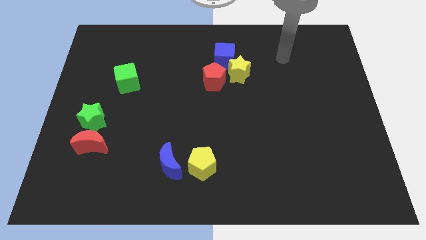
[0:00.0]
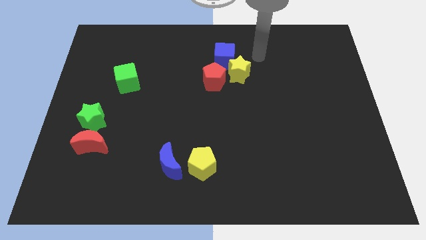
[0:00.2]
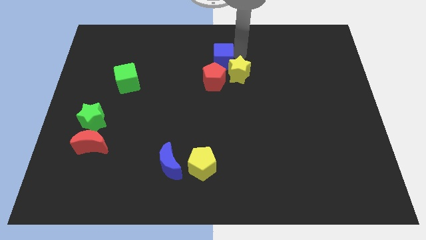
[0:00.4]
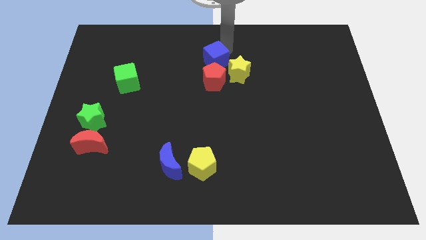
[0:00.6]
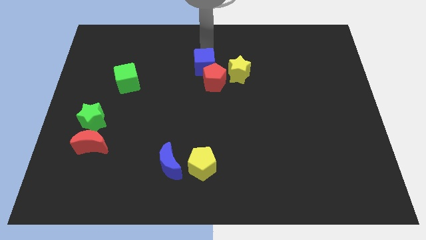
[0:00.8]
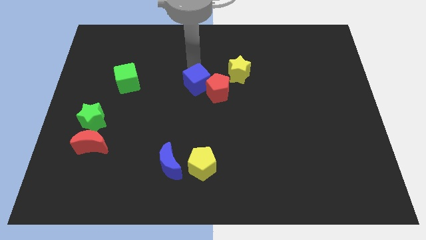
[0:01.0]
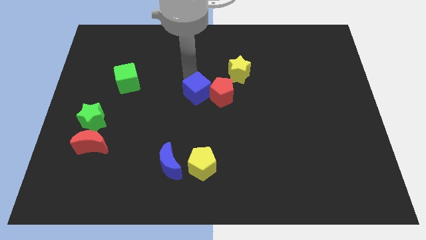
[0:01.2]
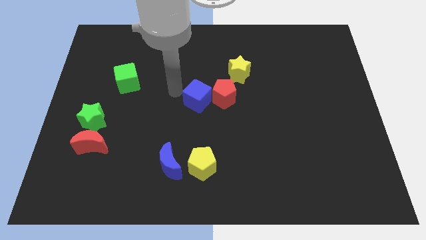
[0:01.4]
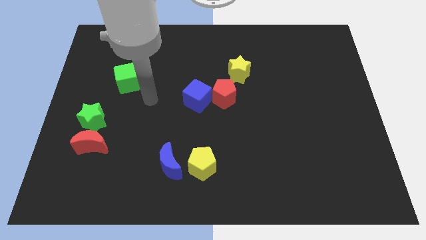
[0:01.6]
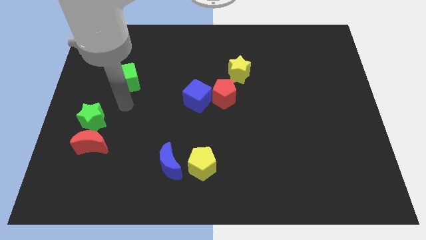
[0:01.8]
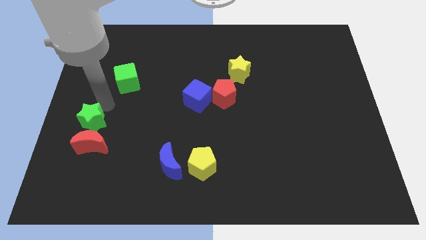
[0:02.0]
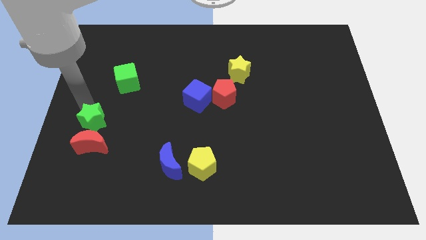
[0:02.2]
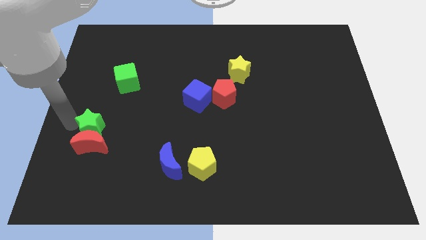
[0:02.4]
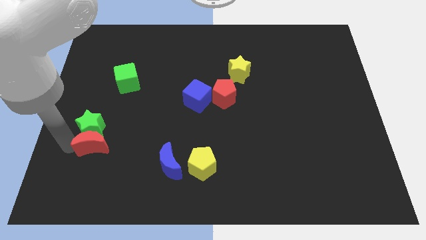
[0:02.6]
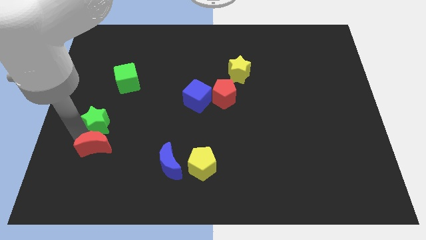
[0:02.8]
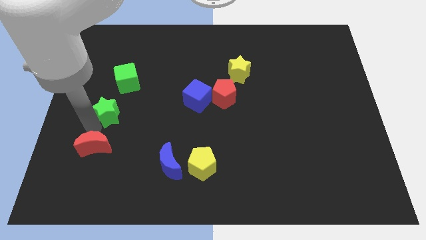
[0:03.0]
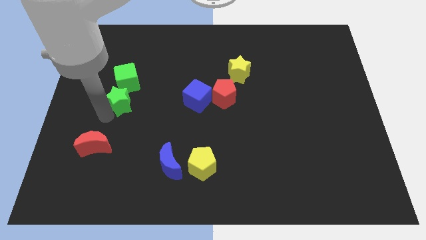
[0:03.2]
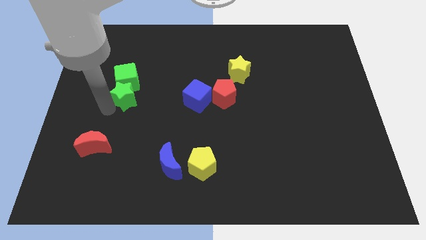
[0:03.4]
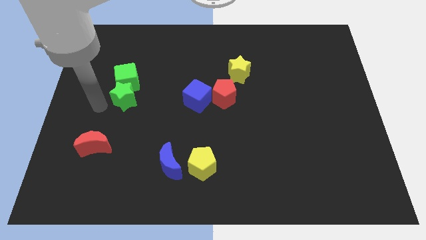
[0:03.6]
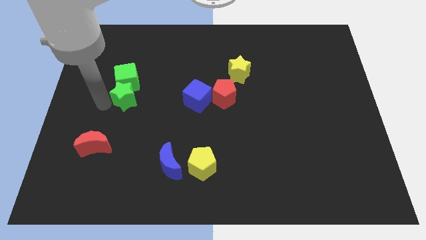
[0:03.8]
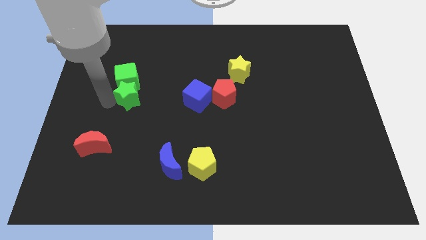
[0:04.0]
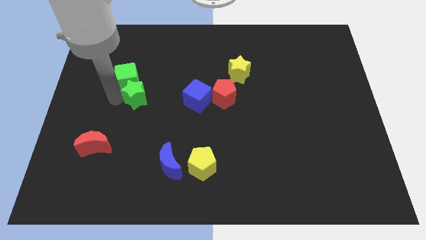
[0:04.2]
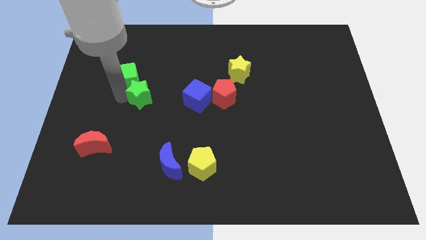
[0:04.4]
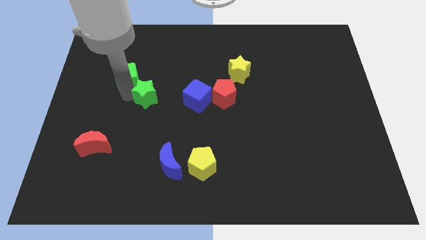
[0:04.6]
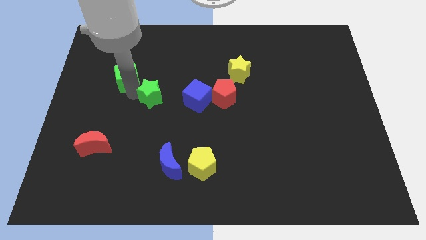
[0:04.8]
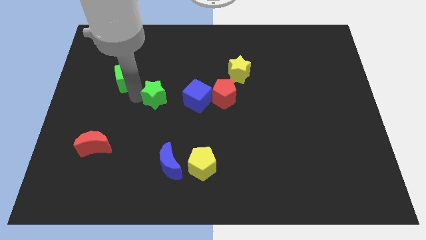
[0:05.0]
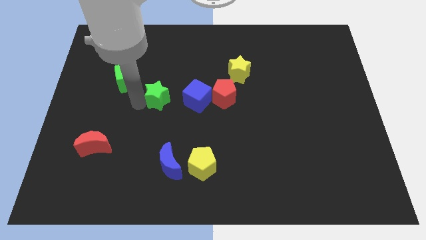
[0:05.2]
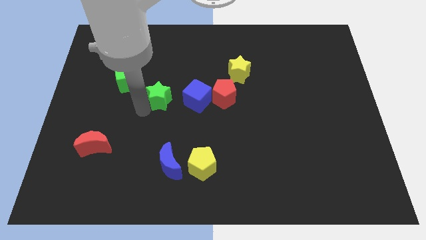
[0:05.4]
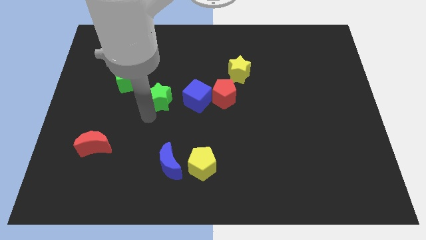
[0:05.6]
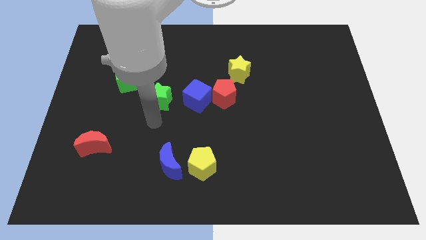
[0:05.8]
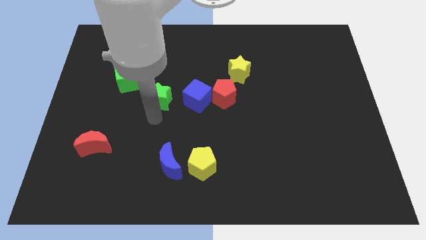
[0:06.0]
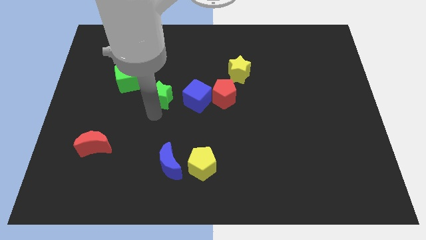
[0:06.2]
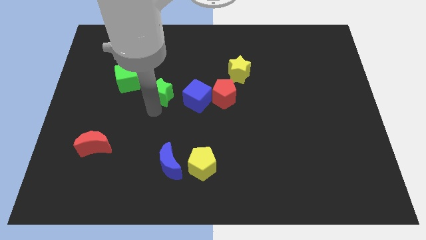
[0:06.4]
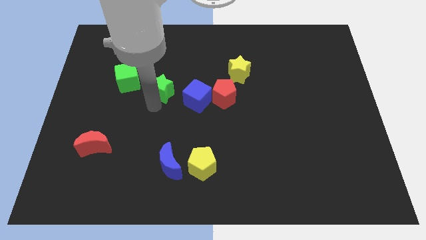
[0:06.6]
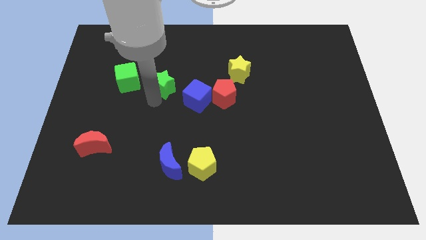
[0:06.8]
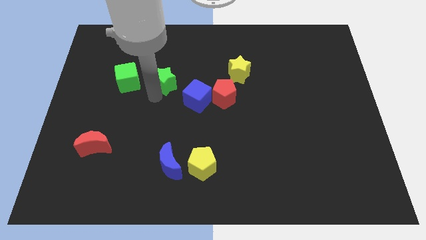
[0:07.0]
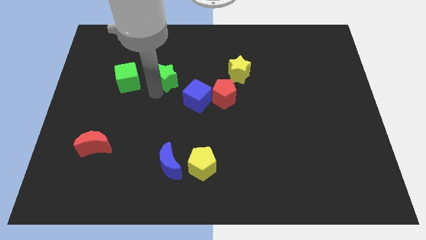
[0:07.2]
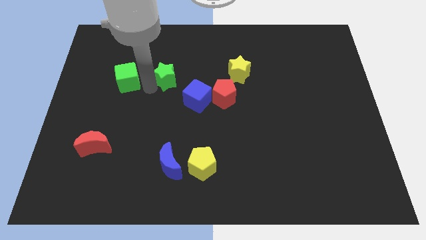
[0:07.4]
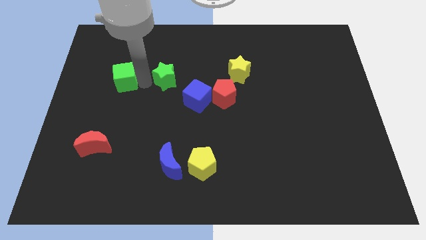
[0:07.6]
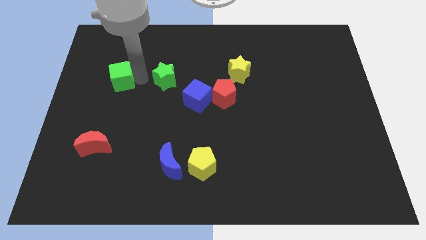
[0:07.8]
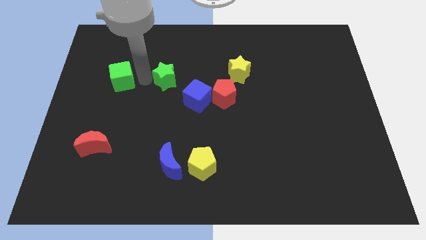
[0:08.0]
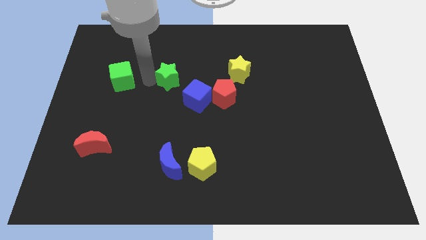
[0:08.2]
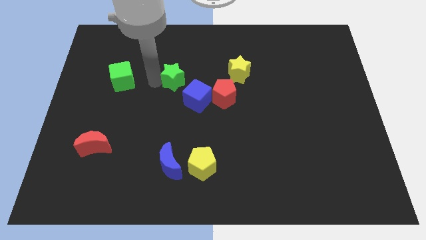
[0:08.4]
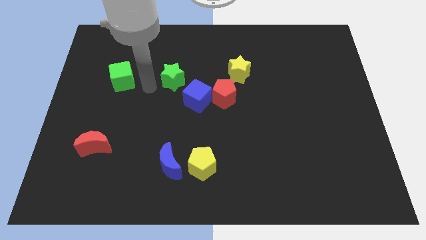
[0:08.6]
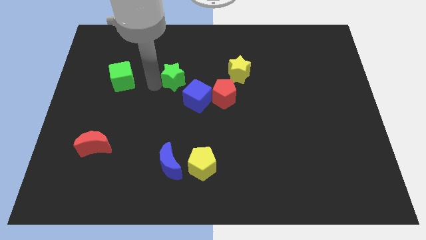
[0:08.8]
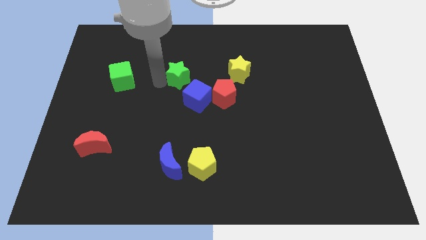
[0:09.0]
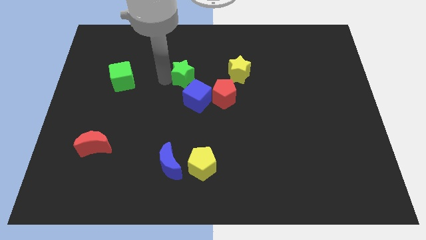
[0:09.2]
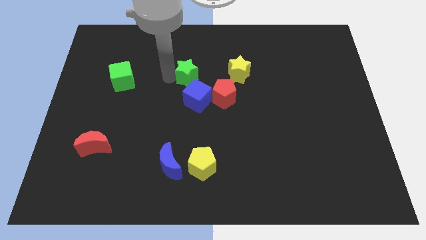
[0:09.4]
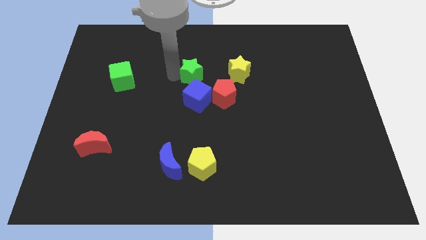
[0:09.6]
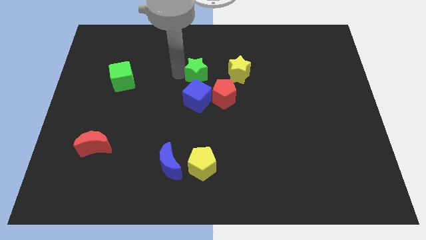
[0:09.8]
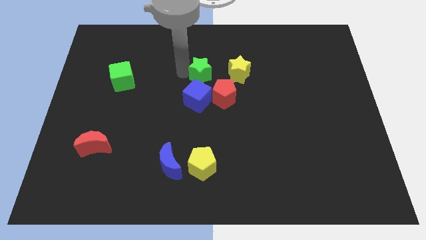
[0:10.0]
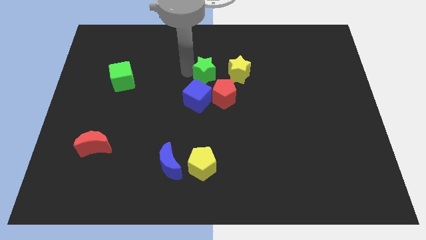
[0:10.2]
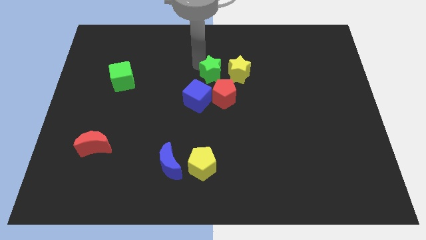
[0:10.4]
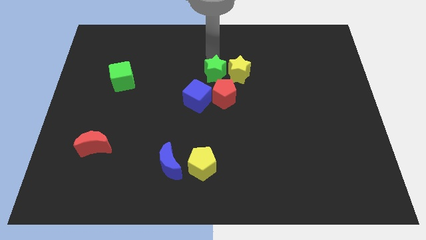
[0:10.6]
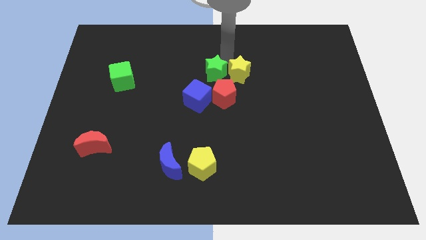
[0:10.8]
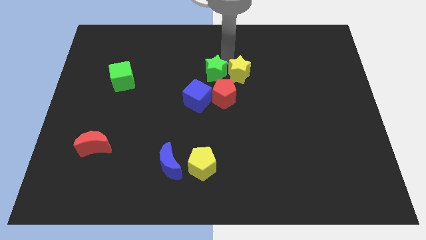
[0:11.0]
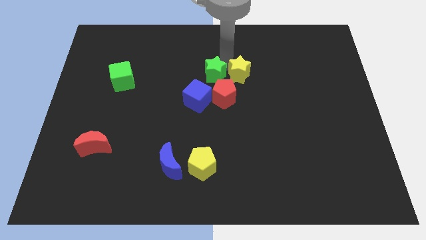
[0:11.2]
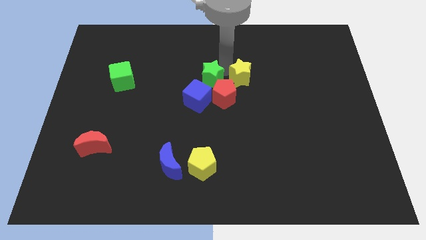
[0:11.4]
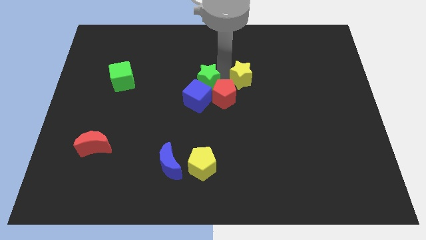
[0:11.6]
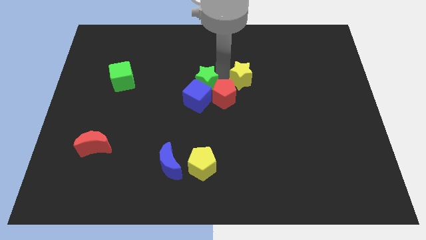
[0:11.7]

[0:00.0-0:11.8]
push the green star towards the blue cube

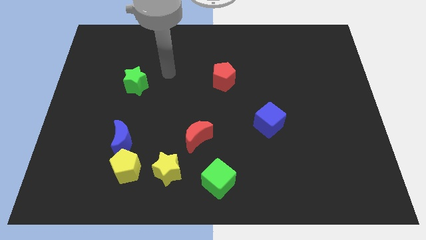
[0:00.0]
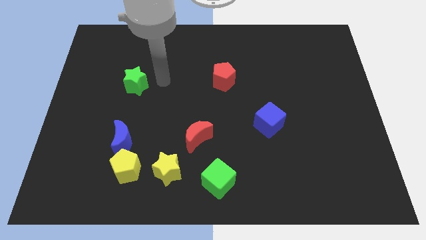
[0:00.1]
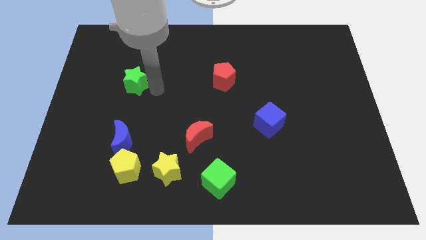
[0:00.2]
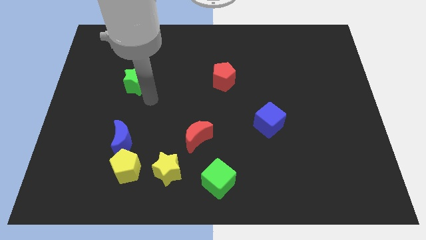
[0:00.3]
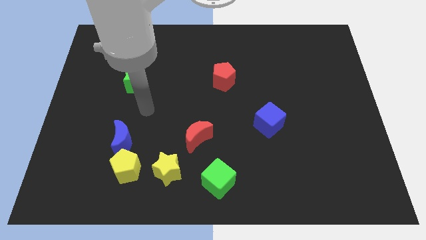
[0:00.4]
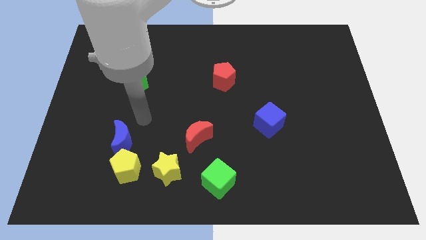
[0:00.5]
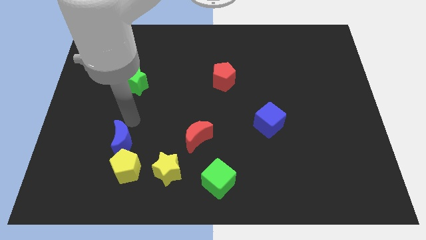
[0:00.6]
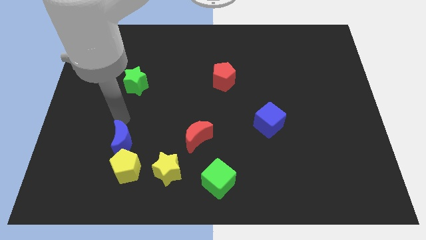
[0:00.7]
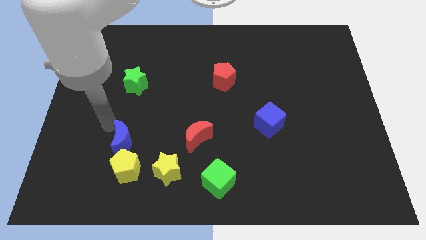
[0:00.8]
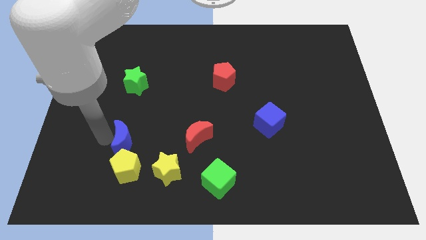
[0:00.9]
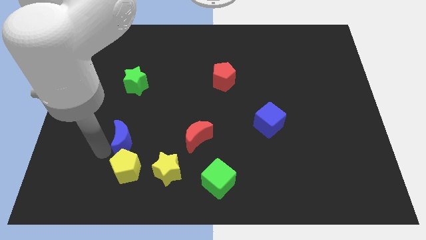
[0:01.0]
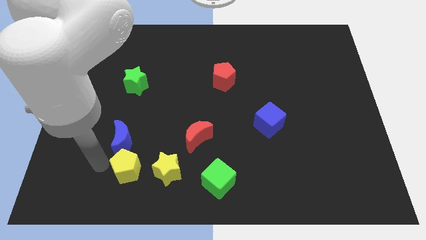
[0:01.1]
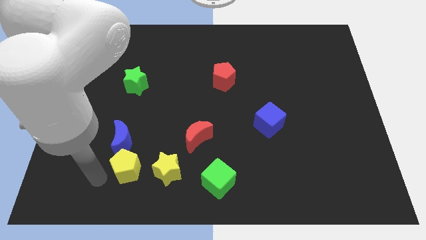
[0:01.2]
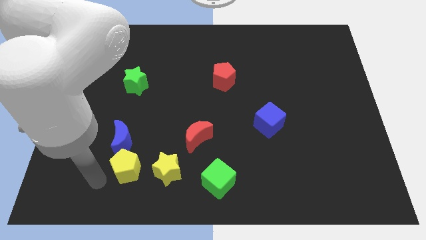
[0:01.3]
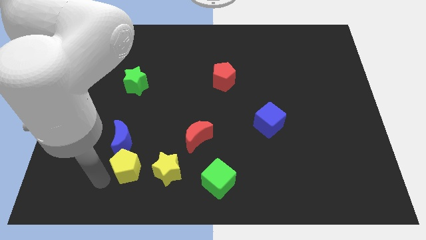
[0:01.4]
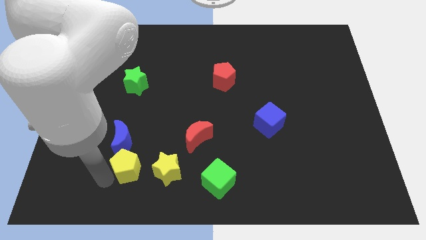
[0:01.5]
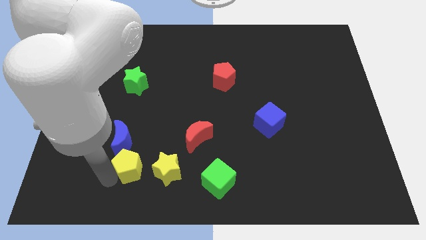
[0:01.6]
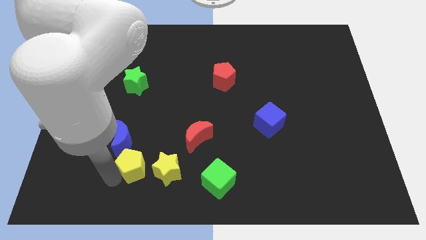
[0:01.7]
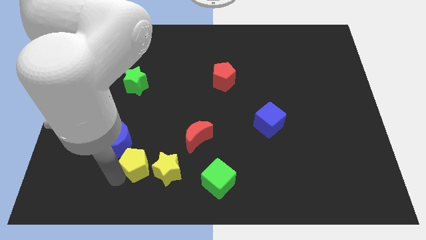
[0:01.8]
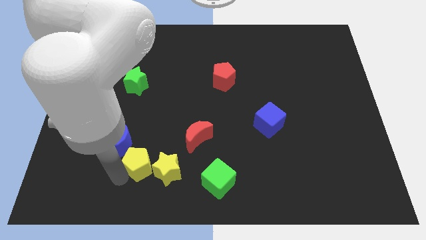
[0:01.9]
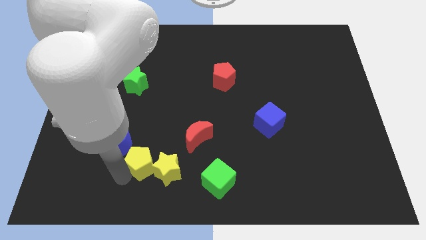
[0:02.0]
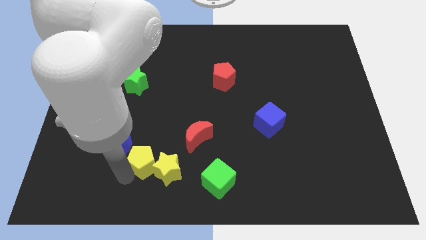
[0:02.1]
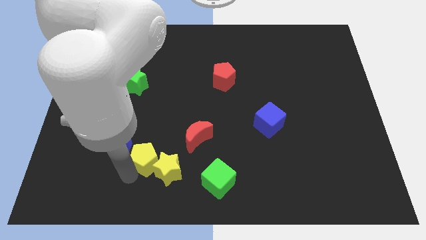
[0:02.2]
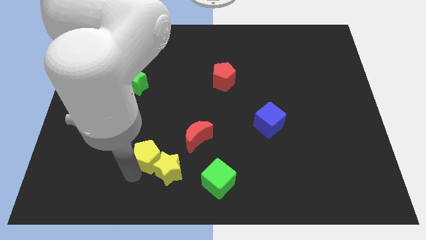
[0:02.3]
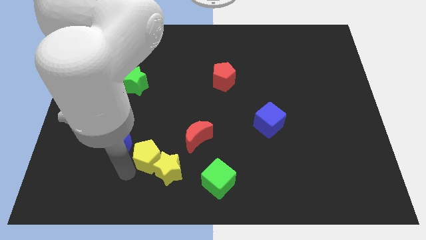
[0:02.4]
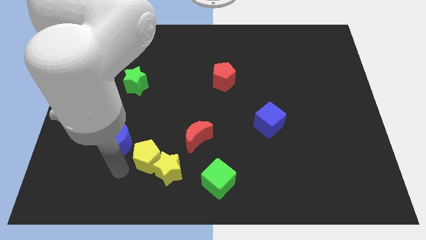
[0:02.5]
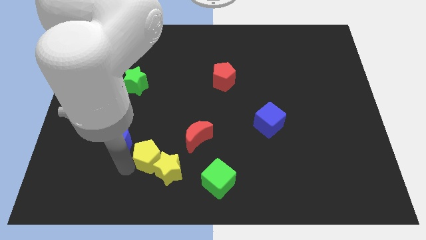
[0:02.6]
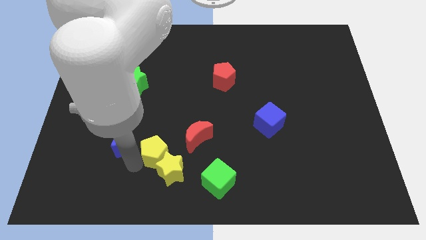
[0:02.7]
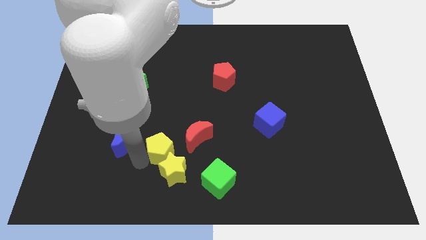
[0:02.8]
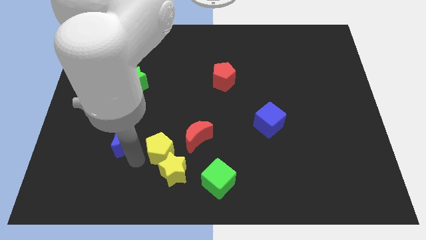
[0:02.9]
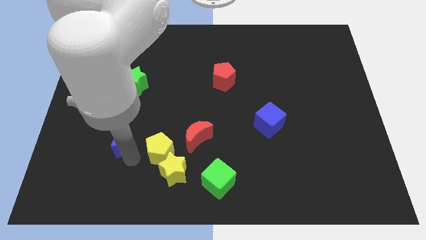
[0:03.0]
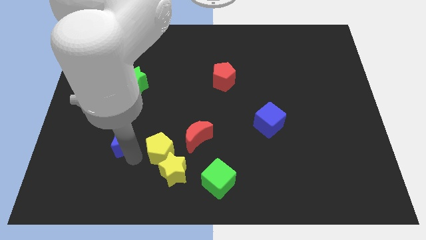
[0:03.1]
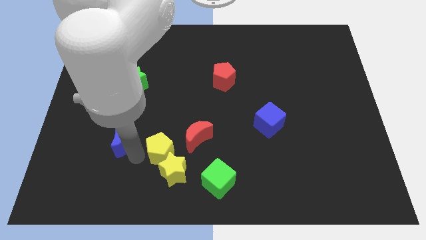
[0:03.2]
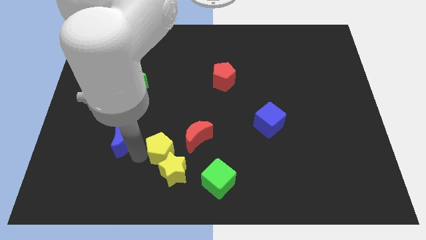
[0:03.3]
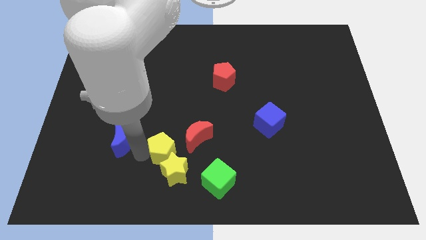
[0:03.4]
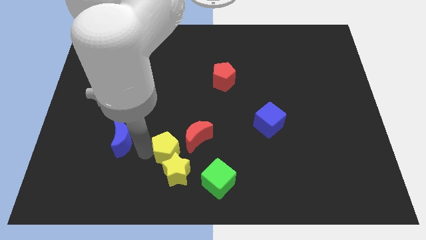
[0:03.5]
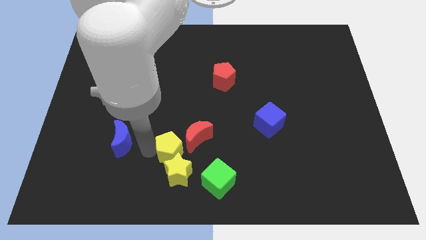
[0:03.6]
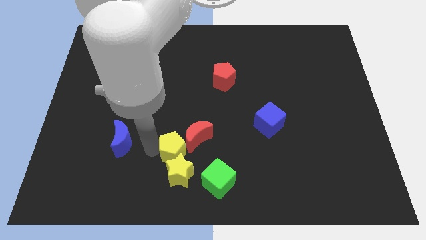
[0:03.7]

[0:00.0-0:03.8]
slide the yellow pentagon close to the red moon
